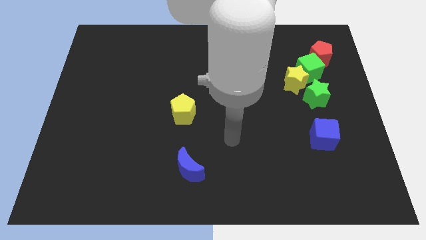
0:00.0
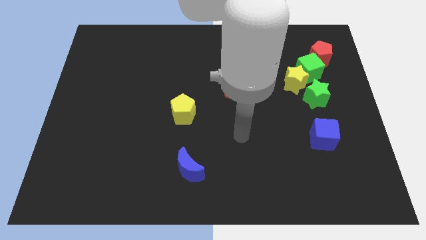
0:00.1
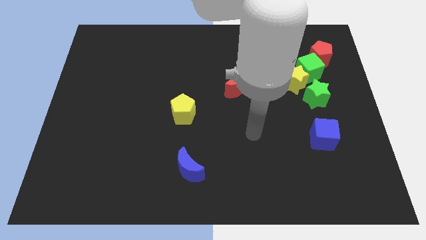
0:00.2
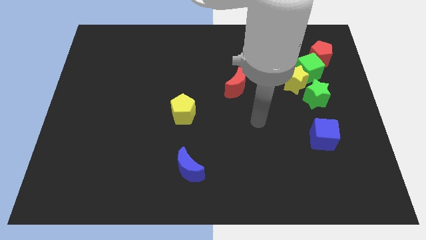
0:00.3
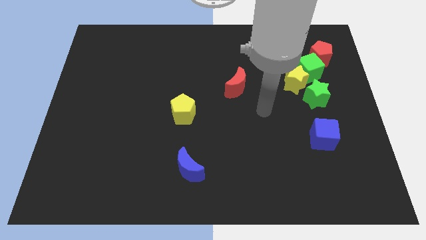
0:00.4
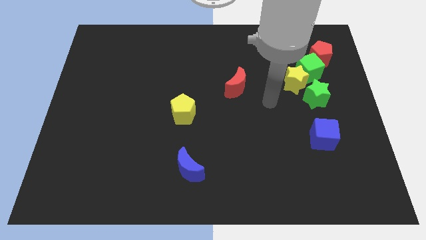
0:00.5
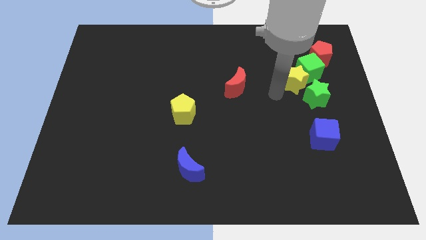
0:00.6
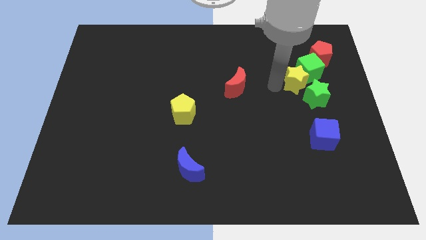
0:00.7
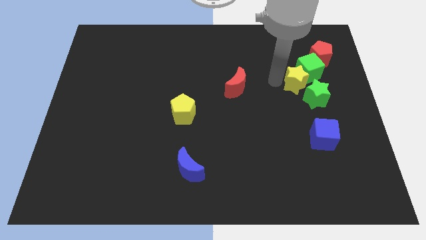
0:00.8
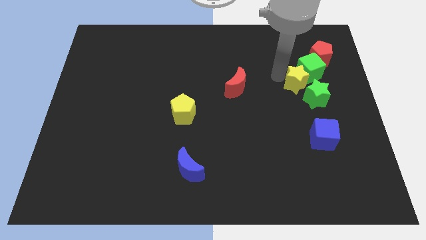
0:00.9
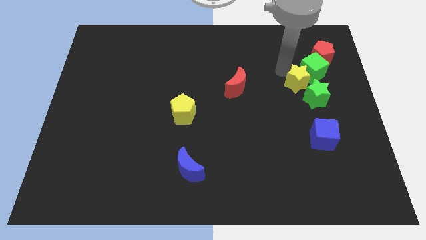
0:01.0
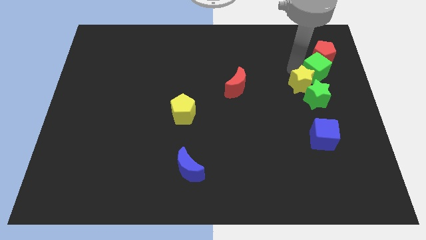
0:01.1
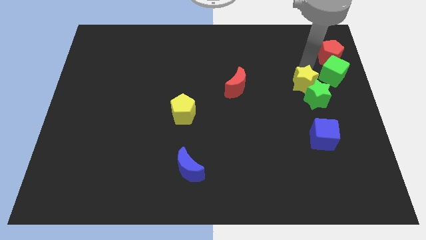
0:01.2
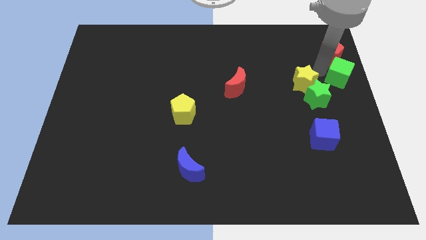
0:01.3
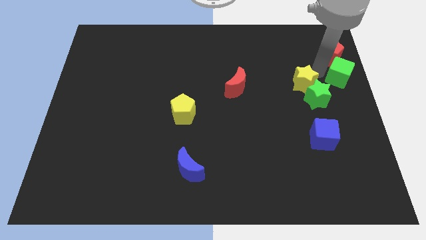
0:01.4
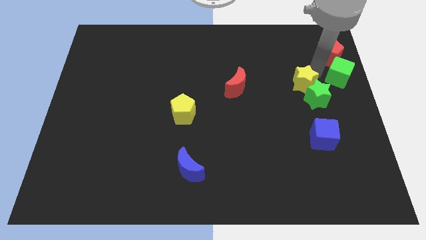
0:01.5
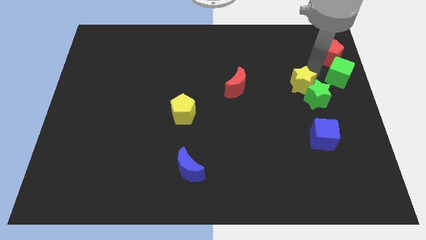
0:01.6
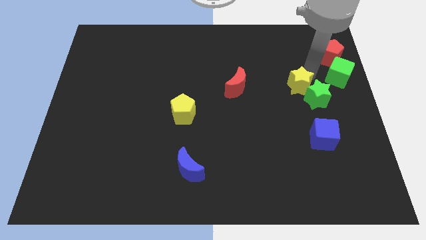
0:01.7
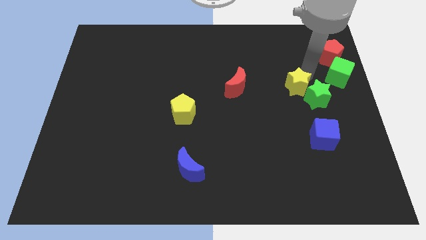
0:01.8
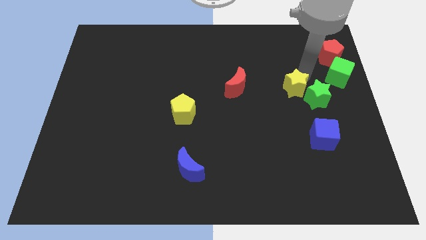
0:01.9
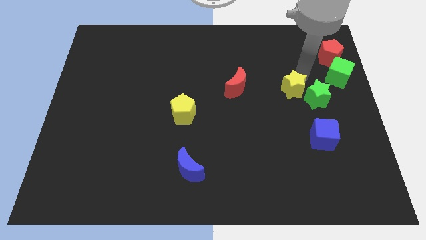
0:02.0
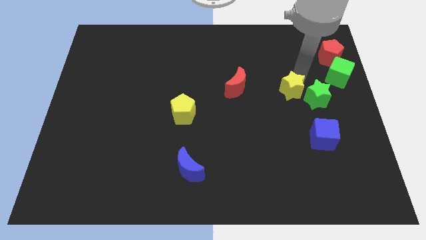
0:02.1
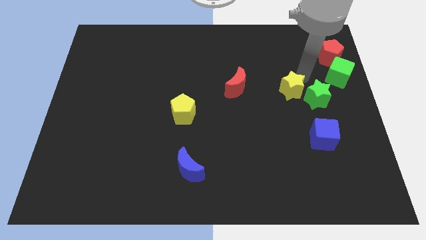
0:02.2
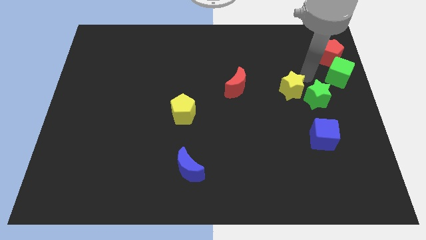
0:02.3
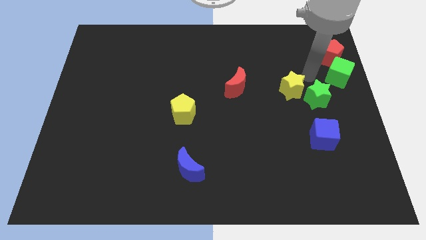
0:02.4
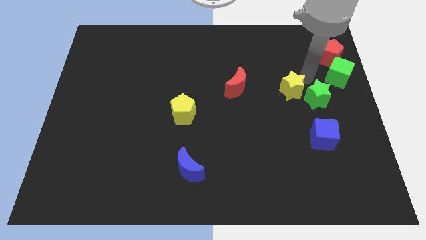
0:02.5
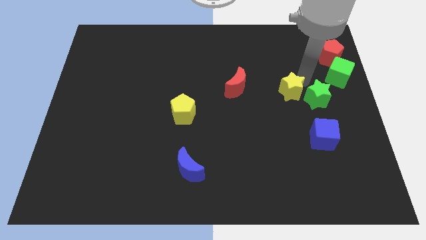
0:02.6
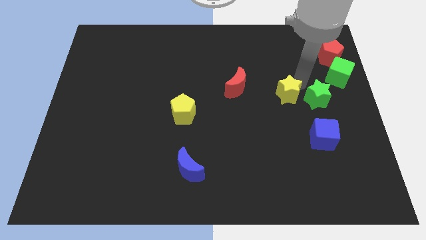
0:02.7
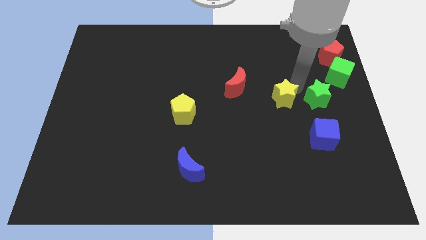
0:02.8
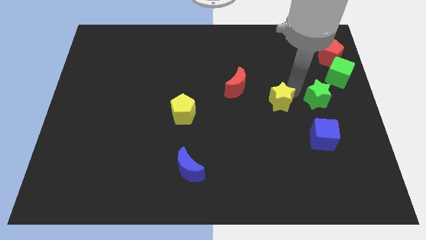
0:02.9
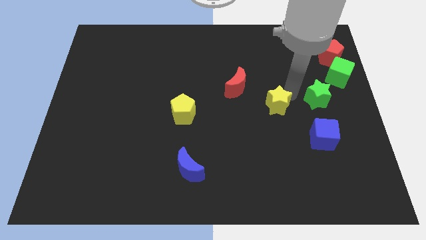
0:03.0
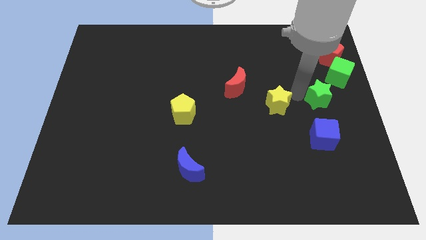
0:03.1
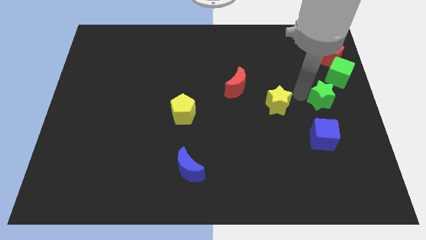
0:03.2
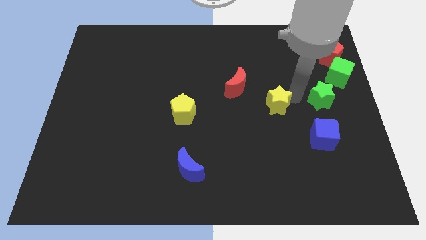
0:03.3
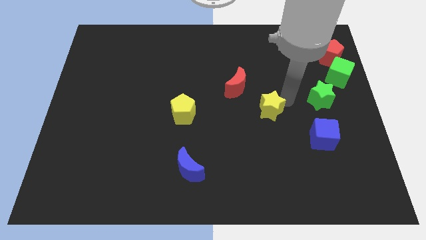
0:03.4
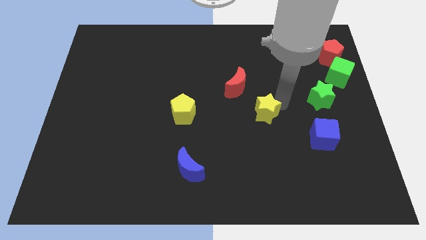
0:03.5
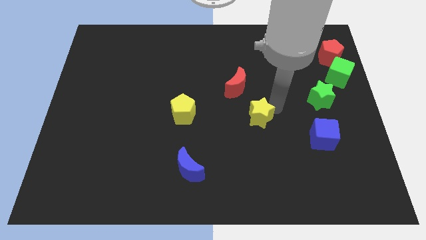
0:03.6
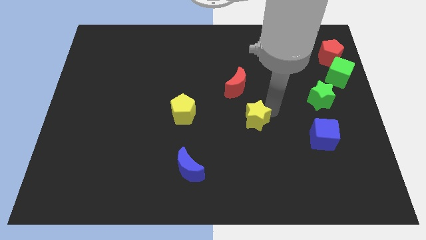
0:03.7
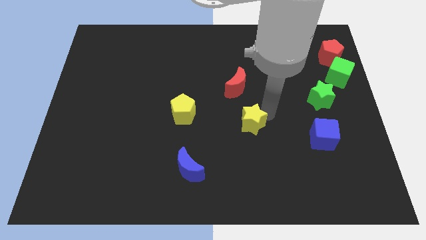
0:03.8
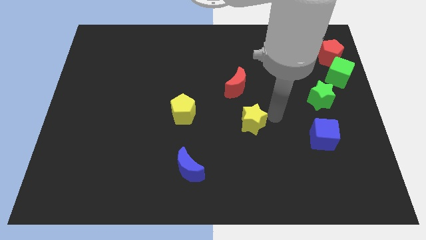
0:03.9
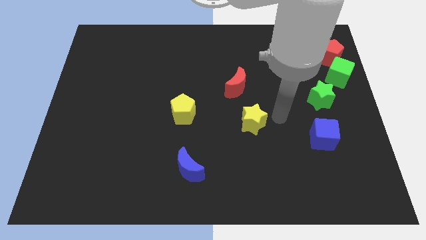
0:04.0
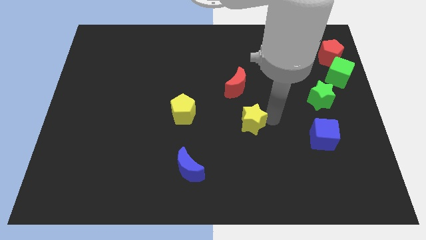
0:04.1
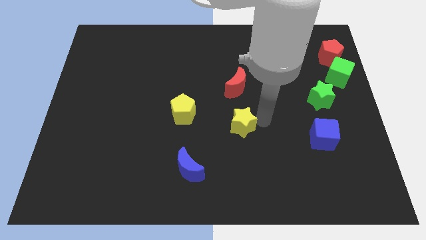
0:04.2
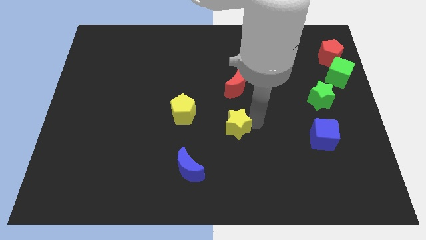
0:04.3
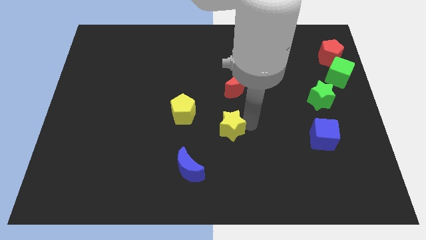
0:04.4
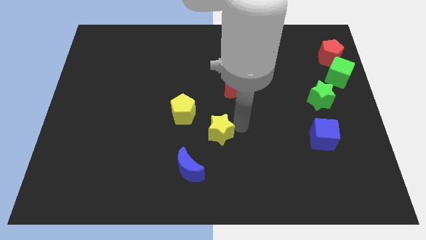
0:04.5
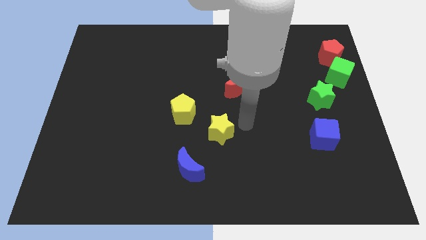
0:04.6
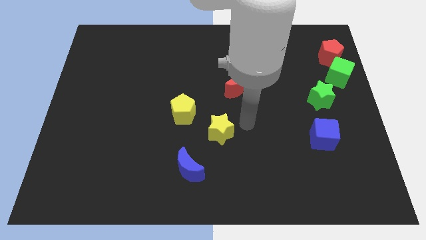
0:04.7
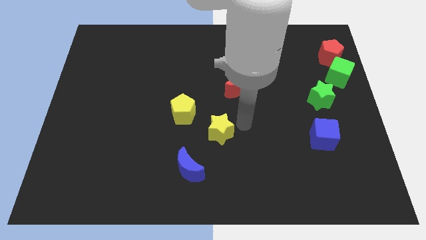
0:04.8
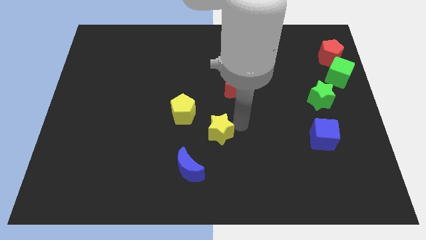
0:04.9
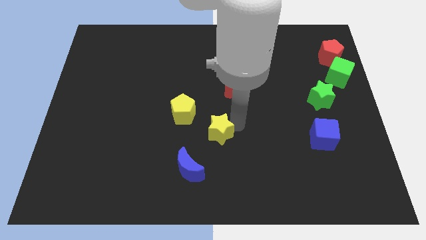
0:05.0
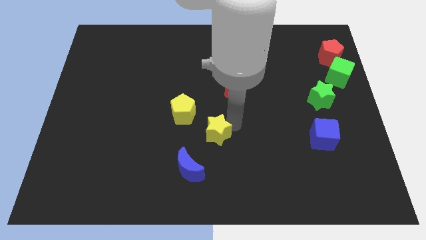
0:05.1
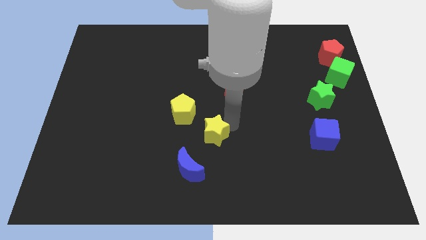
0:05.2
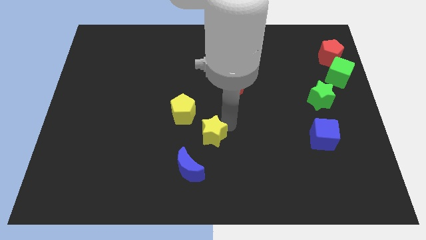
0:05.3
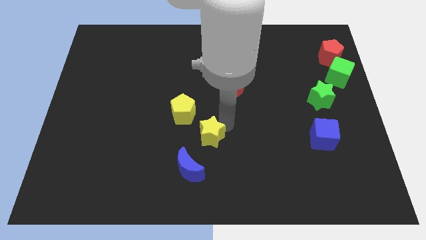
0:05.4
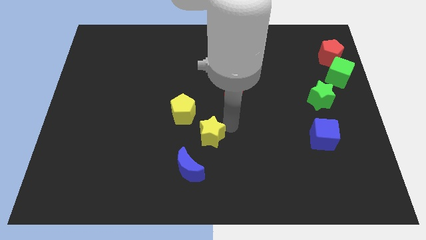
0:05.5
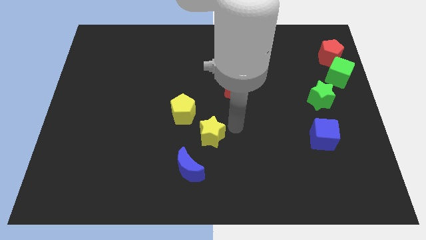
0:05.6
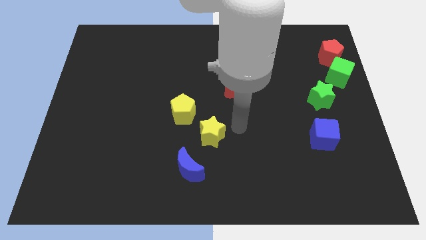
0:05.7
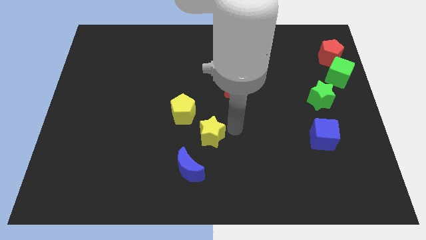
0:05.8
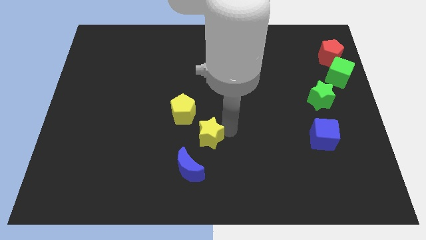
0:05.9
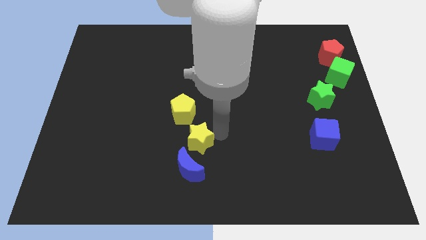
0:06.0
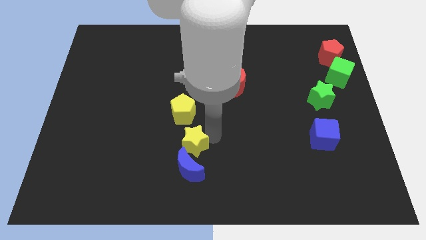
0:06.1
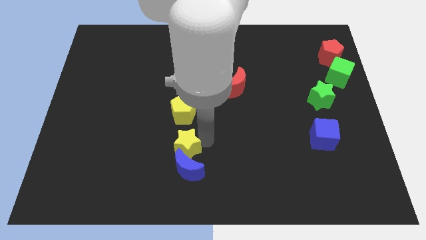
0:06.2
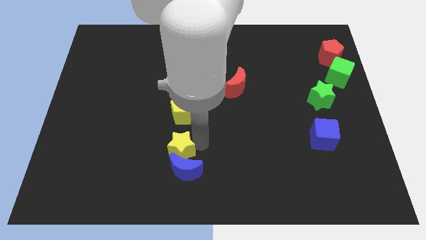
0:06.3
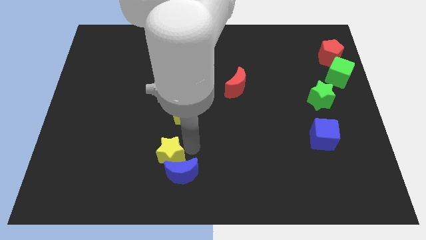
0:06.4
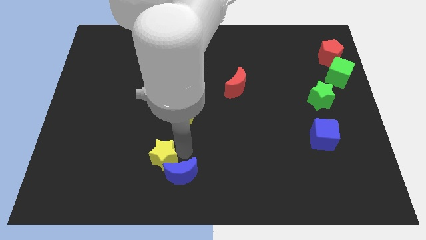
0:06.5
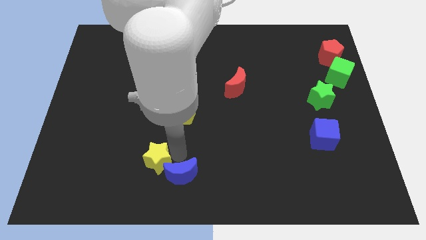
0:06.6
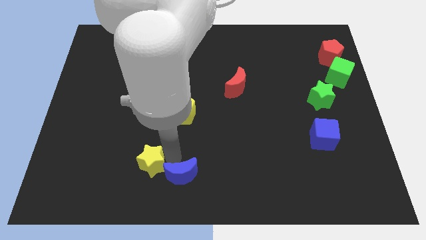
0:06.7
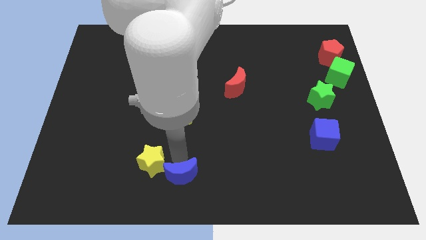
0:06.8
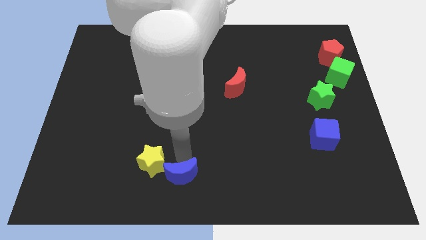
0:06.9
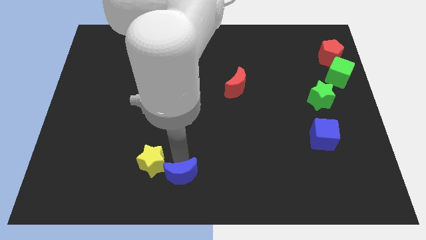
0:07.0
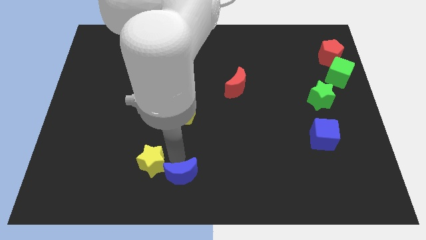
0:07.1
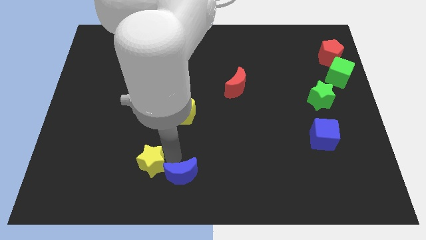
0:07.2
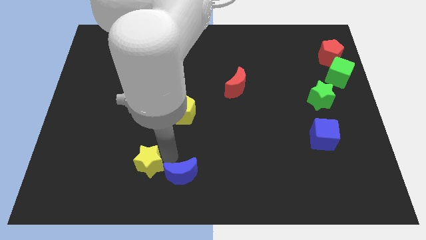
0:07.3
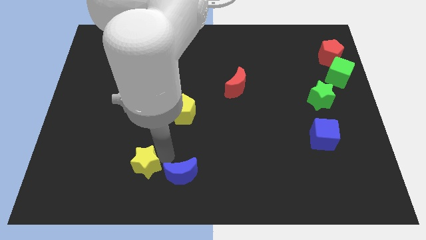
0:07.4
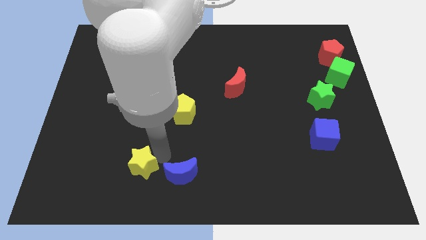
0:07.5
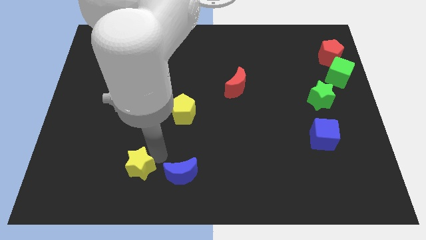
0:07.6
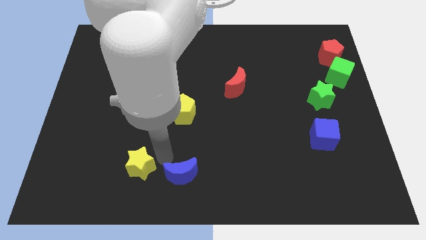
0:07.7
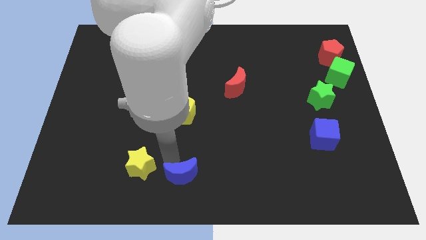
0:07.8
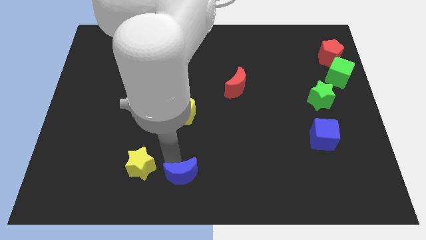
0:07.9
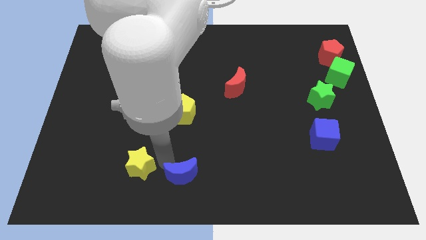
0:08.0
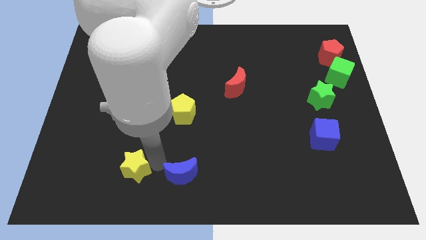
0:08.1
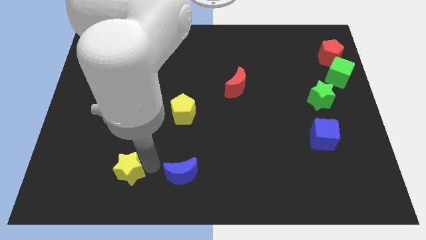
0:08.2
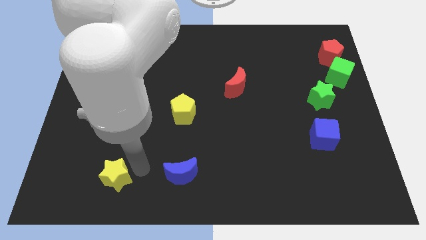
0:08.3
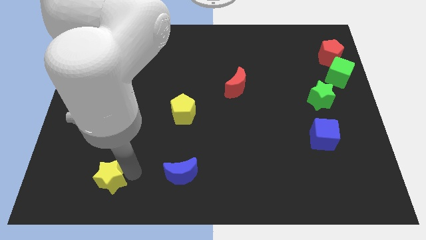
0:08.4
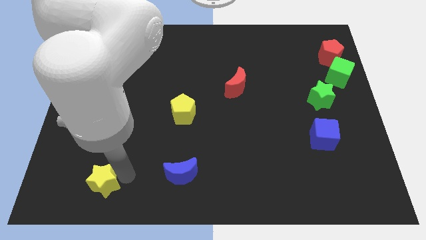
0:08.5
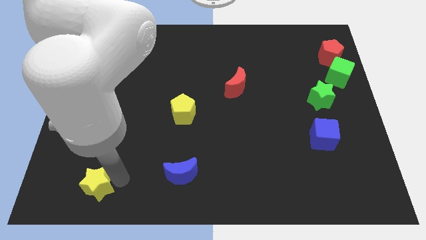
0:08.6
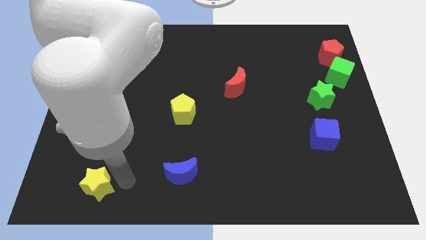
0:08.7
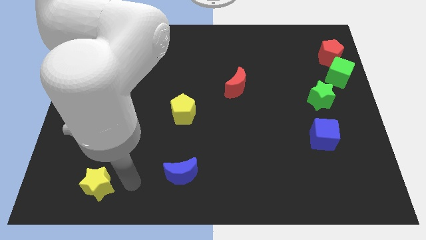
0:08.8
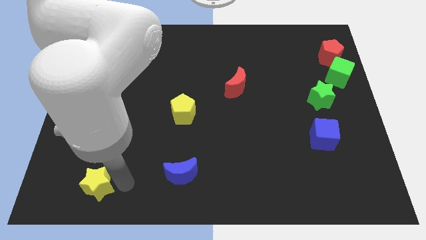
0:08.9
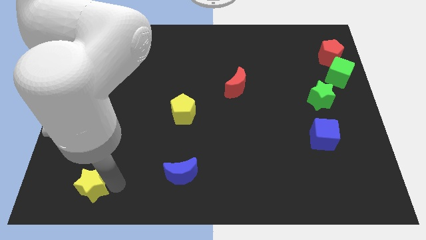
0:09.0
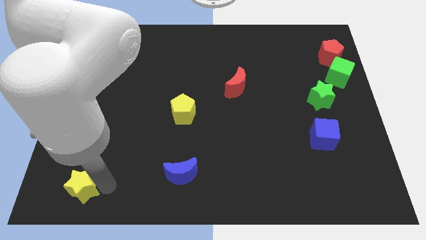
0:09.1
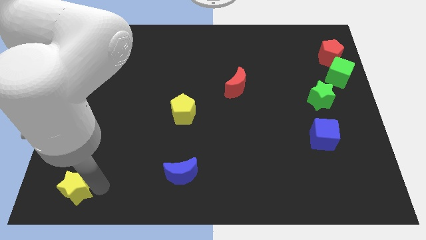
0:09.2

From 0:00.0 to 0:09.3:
slide the yellow star to the bottom left of the board
